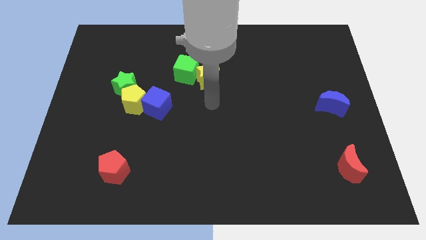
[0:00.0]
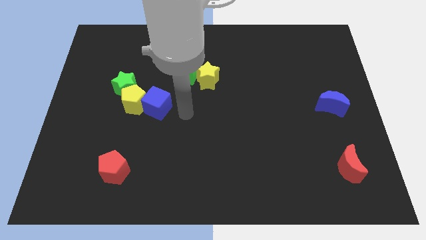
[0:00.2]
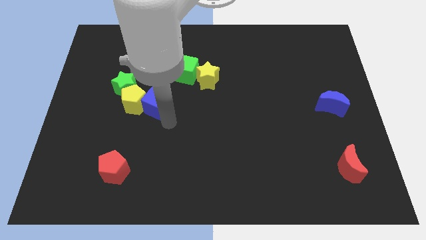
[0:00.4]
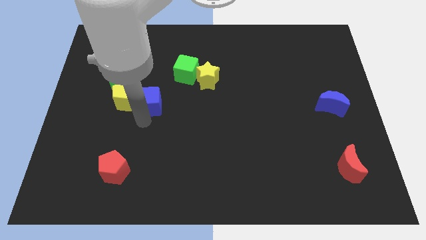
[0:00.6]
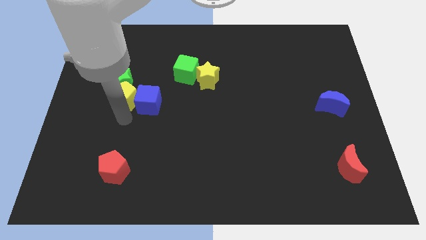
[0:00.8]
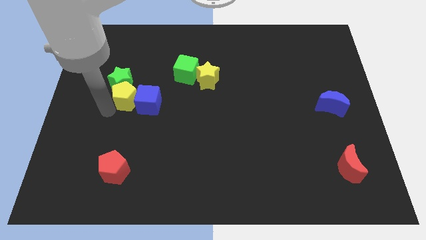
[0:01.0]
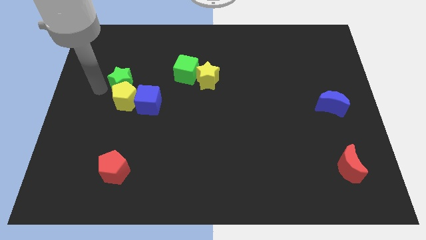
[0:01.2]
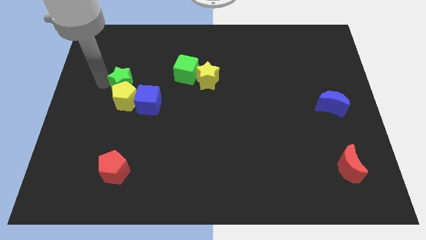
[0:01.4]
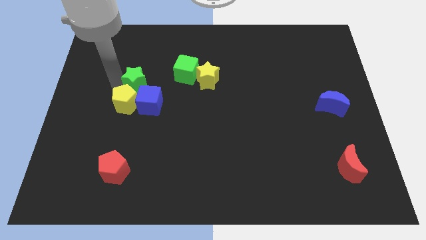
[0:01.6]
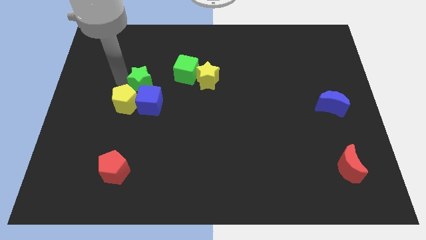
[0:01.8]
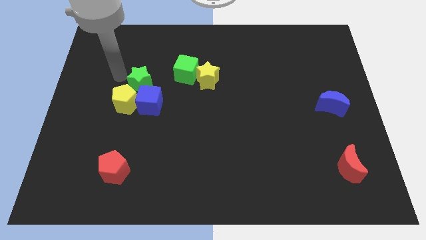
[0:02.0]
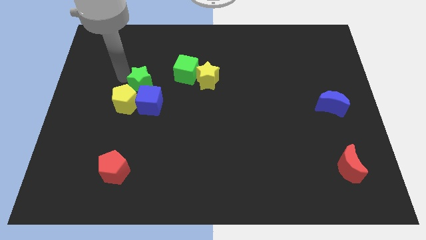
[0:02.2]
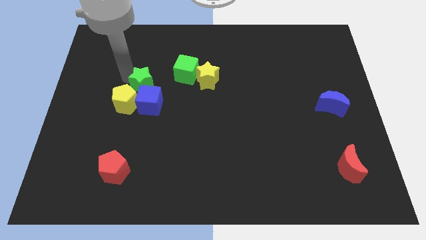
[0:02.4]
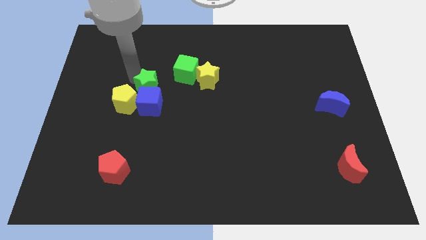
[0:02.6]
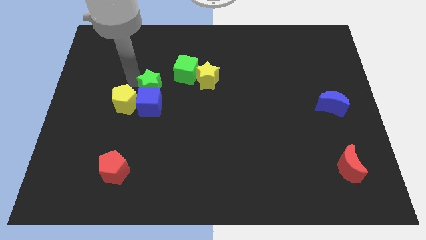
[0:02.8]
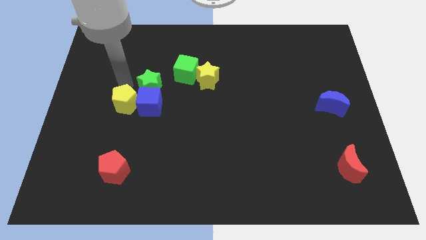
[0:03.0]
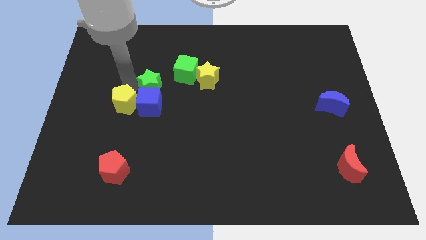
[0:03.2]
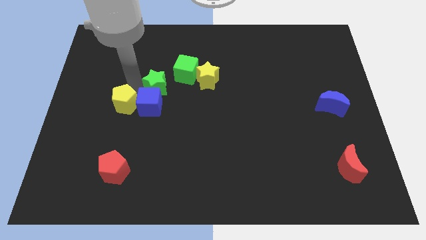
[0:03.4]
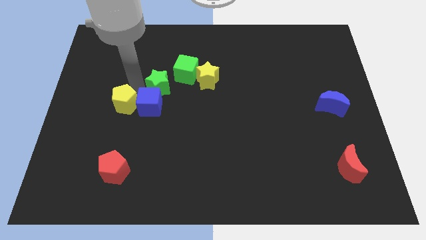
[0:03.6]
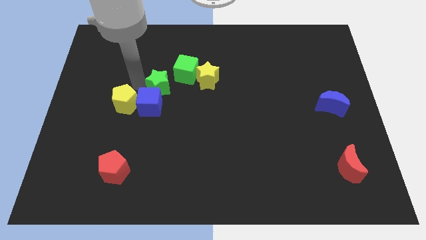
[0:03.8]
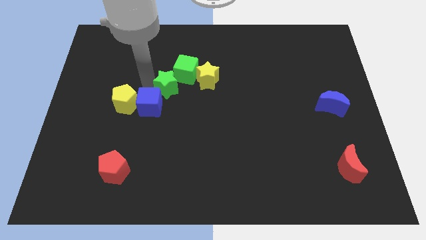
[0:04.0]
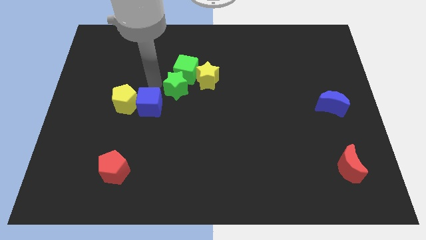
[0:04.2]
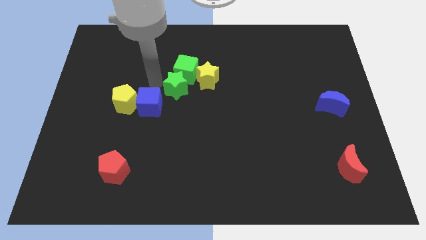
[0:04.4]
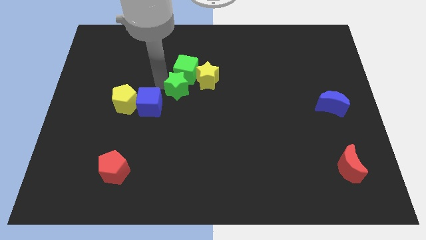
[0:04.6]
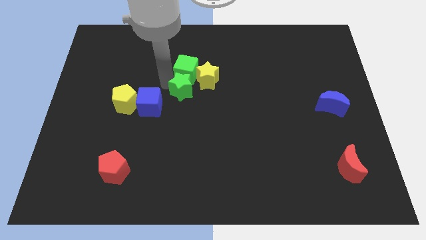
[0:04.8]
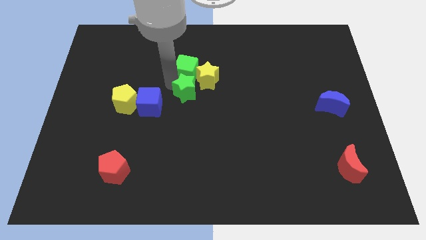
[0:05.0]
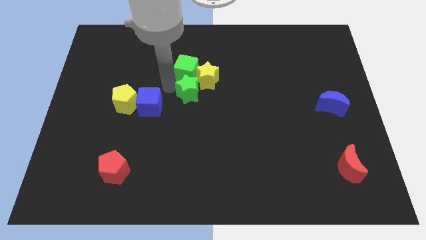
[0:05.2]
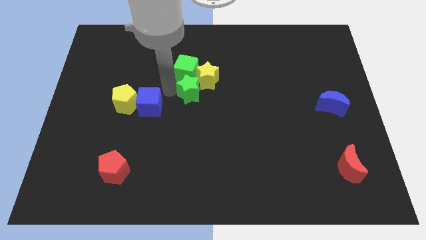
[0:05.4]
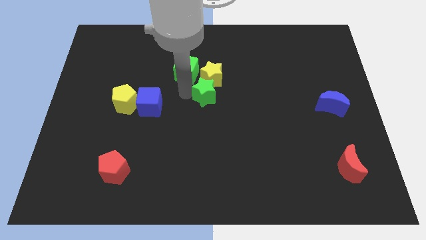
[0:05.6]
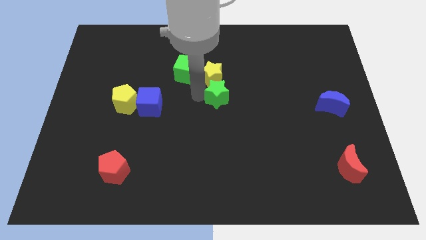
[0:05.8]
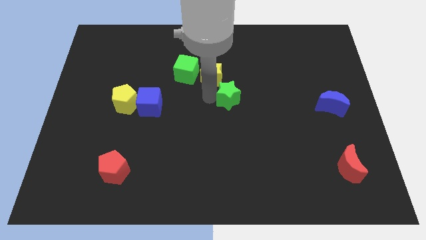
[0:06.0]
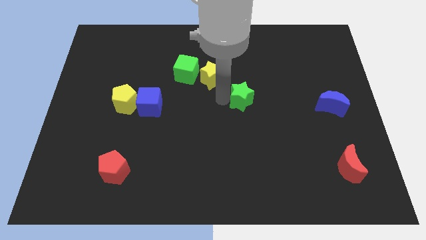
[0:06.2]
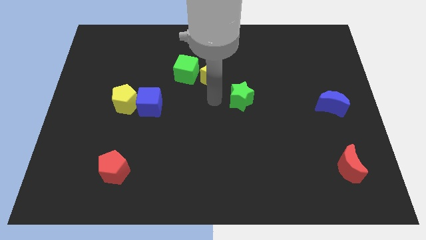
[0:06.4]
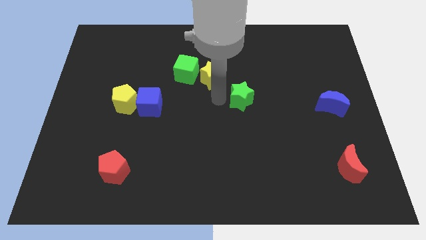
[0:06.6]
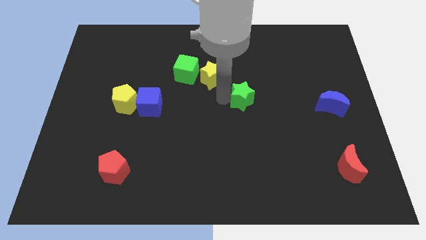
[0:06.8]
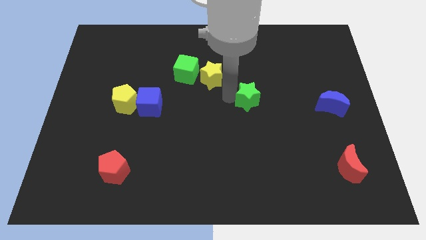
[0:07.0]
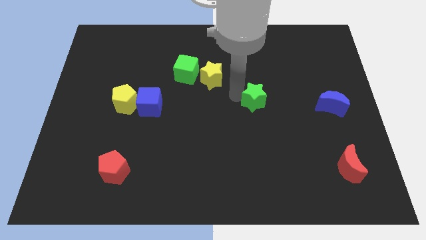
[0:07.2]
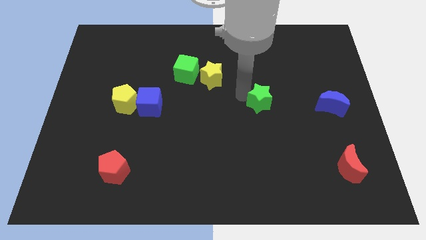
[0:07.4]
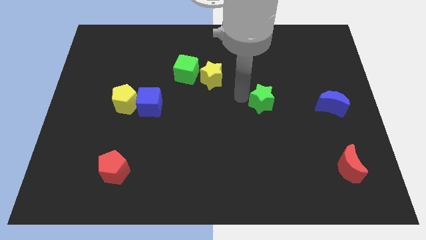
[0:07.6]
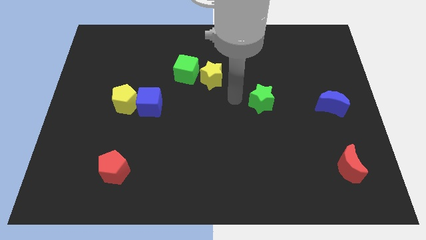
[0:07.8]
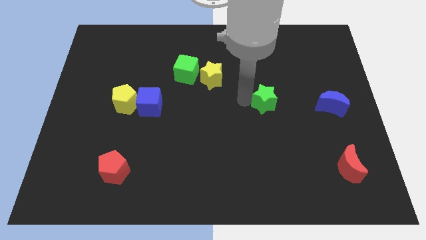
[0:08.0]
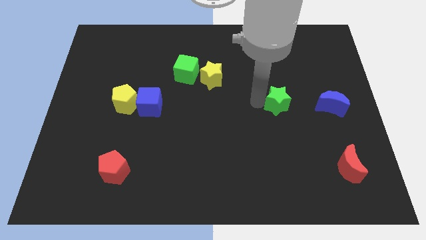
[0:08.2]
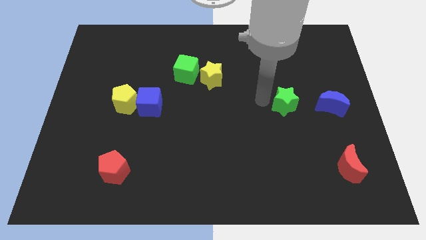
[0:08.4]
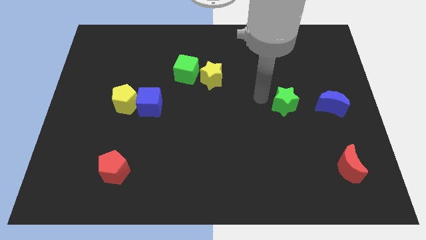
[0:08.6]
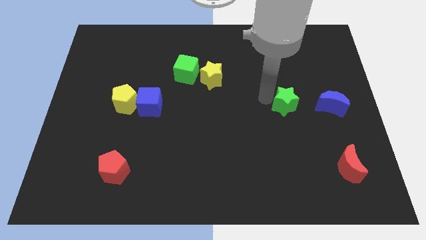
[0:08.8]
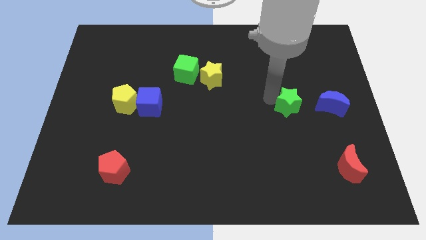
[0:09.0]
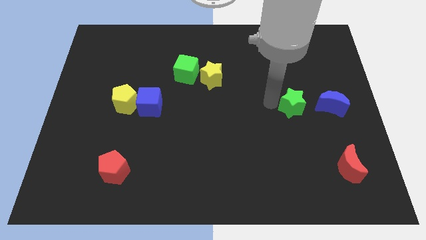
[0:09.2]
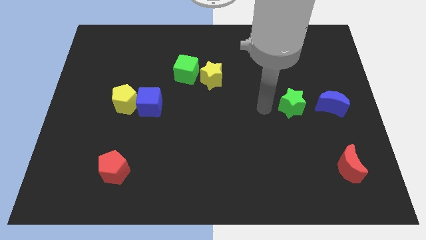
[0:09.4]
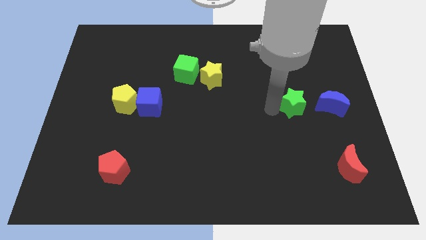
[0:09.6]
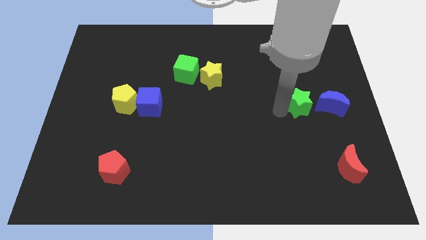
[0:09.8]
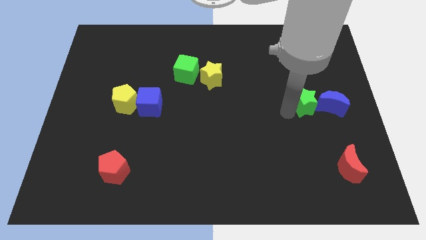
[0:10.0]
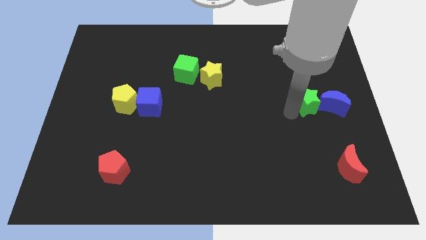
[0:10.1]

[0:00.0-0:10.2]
move the green star next to the blue moon

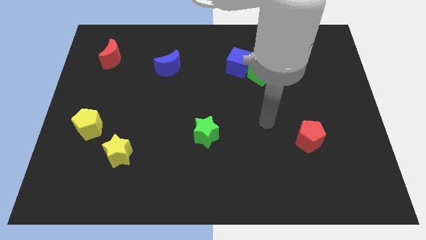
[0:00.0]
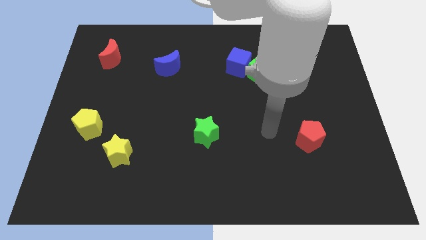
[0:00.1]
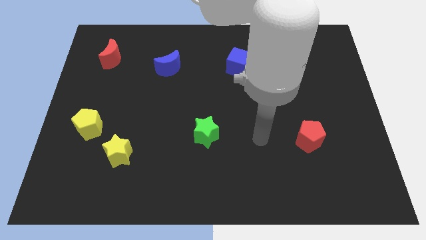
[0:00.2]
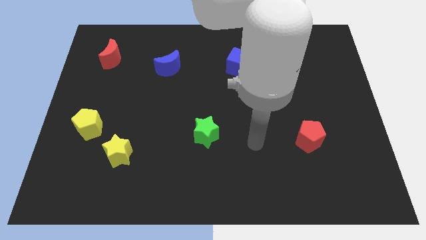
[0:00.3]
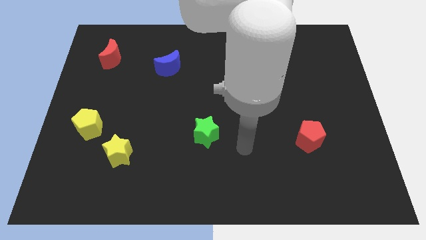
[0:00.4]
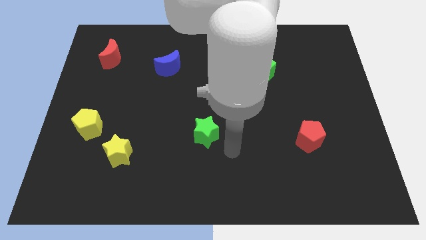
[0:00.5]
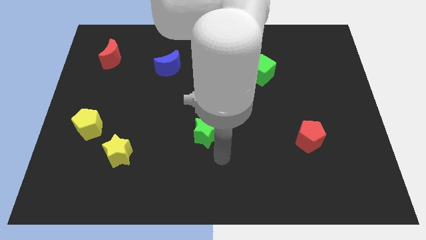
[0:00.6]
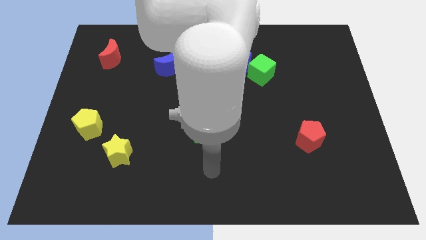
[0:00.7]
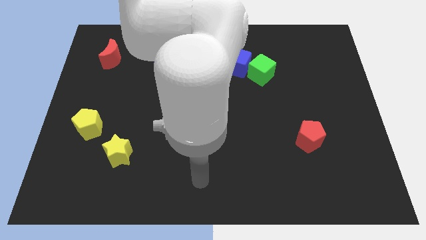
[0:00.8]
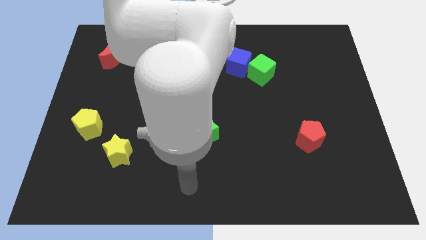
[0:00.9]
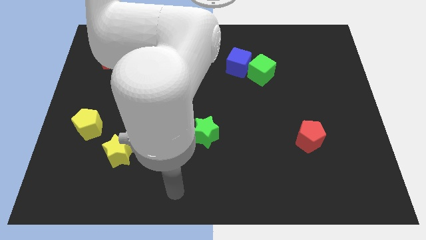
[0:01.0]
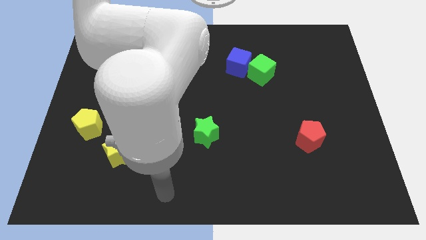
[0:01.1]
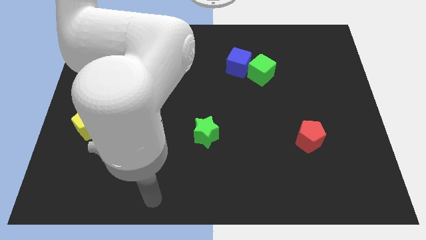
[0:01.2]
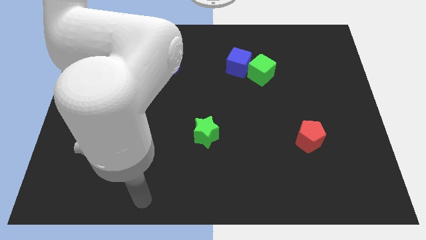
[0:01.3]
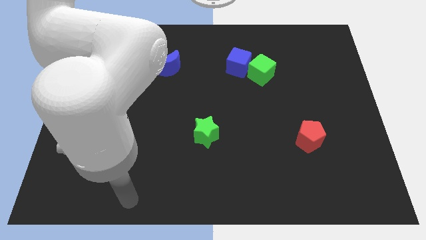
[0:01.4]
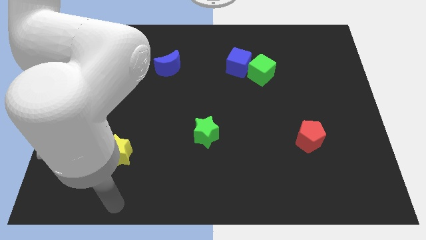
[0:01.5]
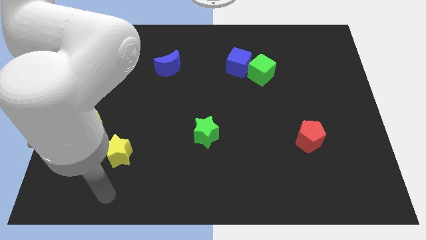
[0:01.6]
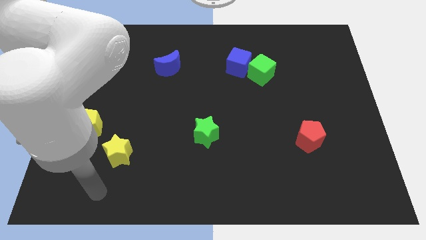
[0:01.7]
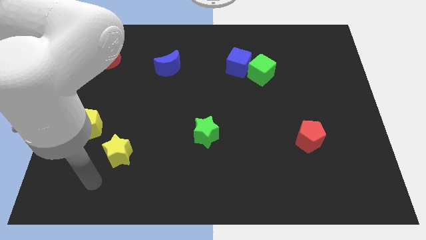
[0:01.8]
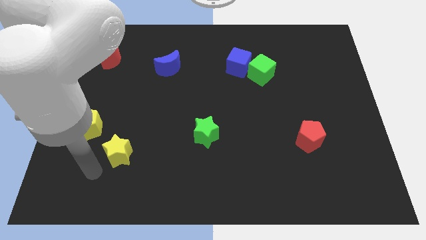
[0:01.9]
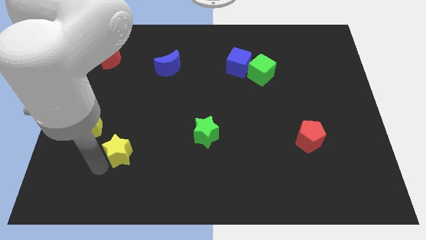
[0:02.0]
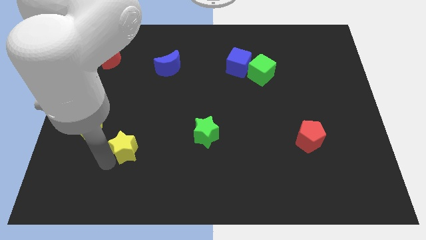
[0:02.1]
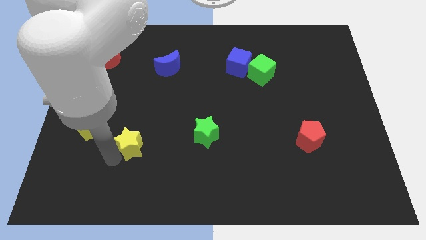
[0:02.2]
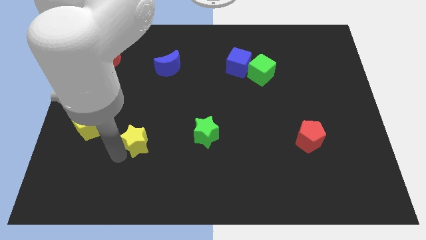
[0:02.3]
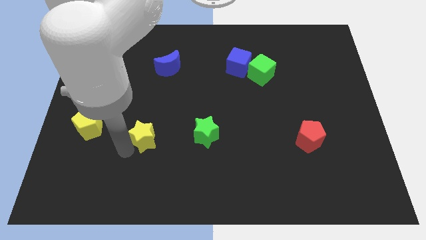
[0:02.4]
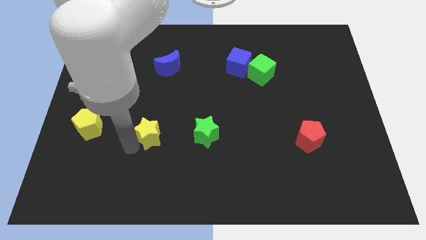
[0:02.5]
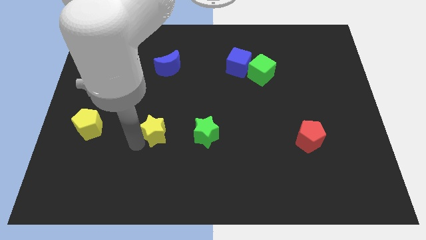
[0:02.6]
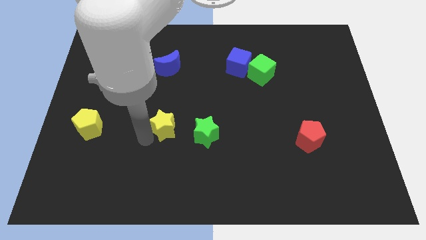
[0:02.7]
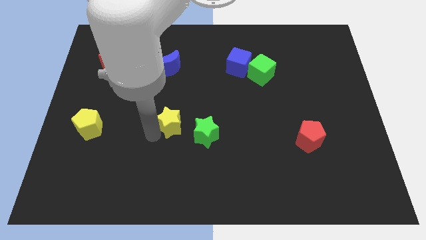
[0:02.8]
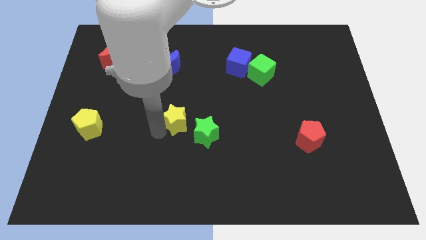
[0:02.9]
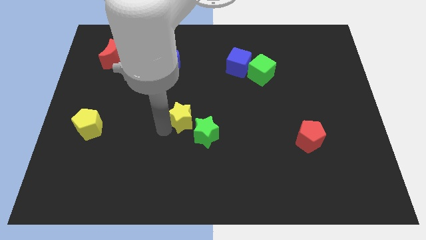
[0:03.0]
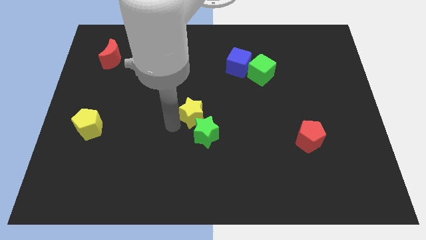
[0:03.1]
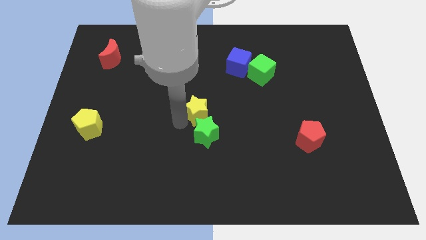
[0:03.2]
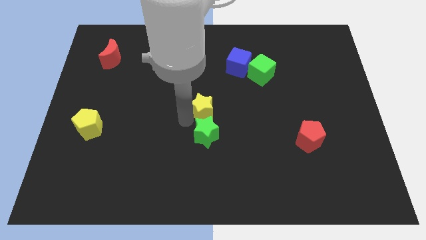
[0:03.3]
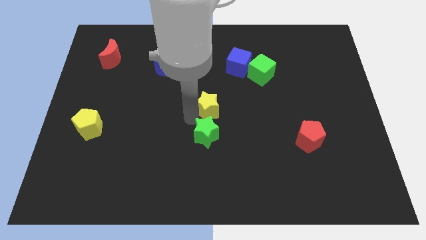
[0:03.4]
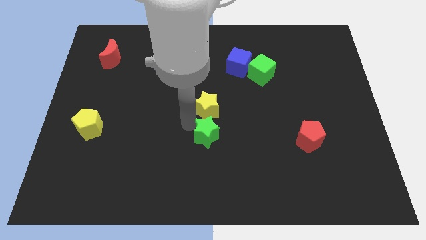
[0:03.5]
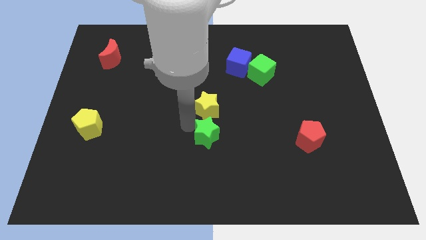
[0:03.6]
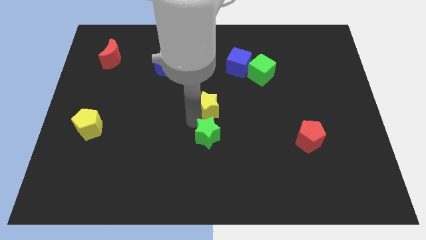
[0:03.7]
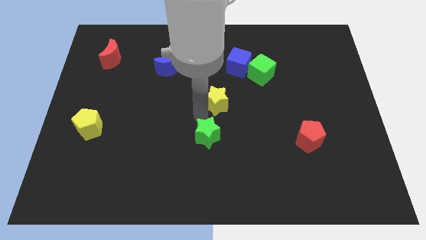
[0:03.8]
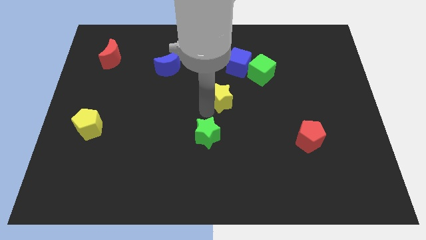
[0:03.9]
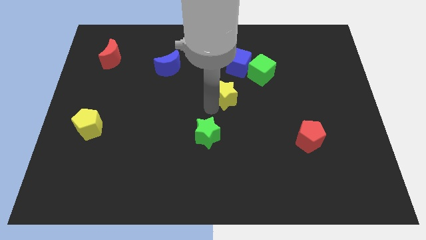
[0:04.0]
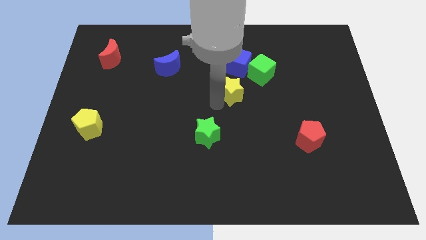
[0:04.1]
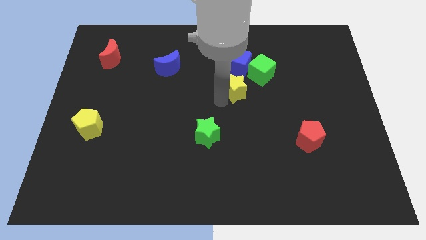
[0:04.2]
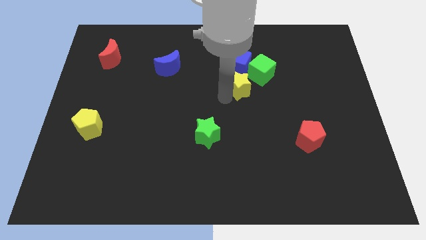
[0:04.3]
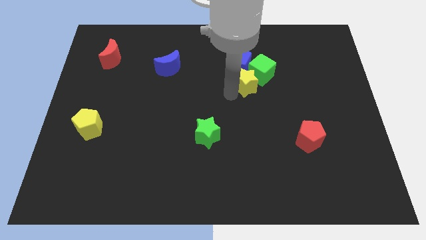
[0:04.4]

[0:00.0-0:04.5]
slide the yellow star to the green cube
